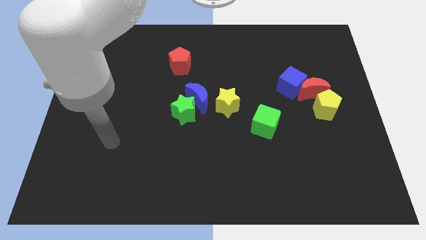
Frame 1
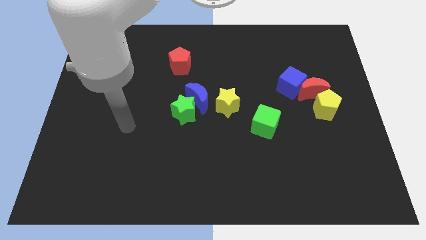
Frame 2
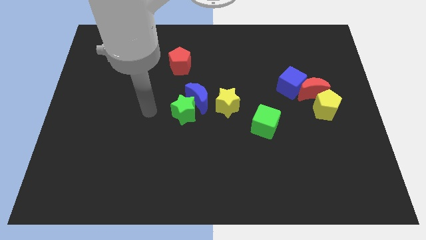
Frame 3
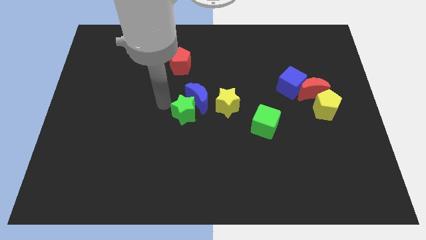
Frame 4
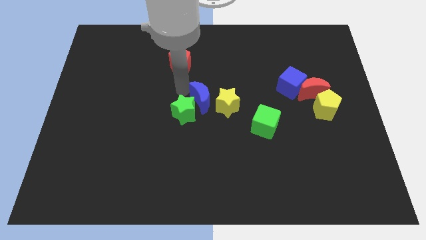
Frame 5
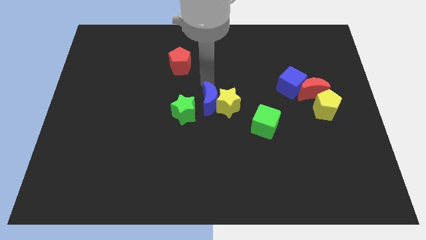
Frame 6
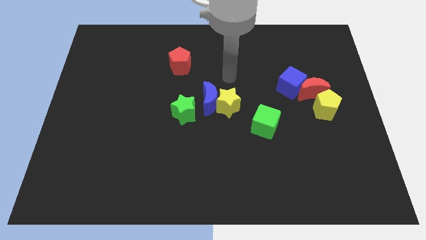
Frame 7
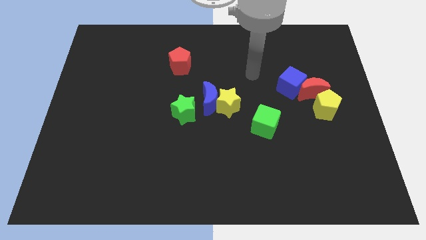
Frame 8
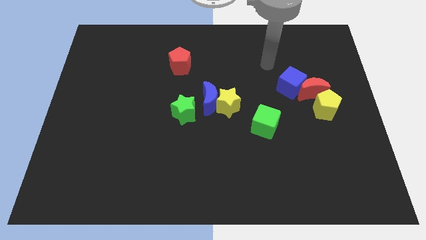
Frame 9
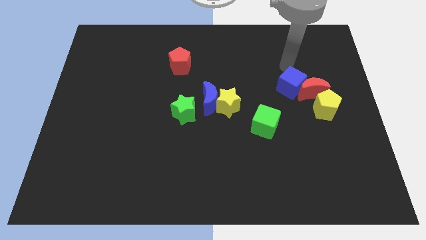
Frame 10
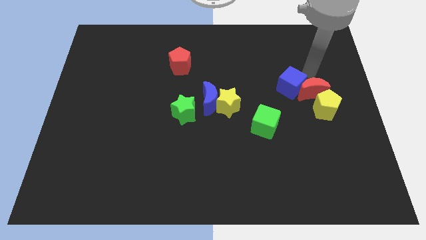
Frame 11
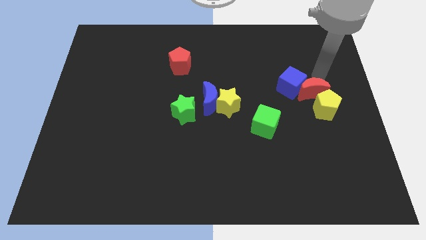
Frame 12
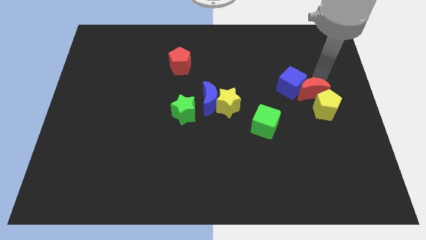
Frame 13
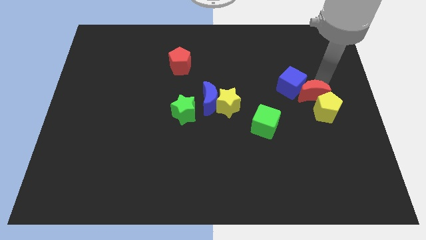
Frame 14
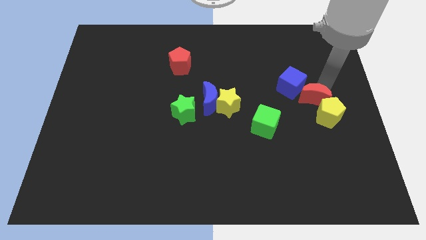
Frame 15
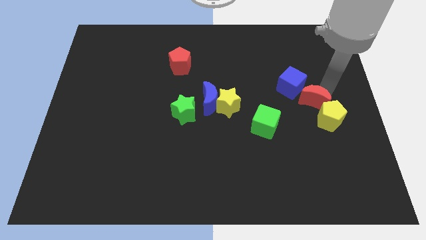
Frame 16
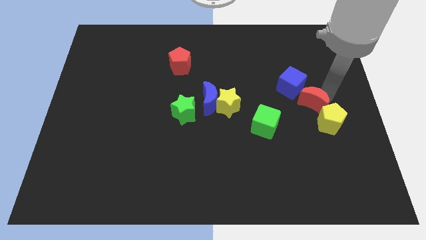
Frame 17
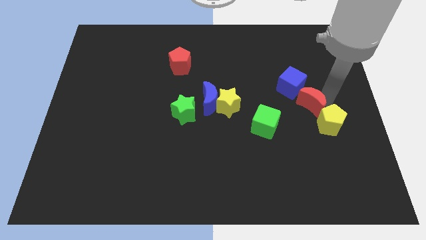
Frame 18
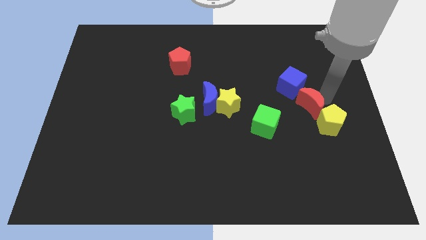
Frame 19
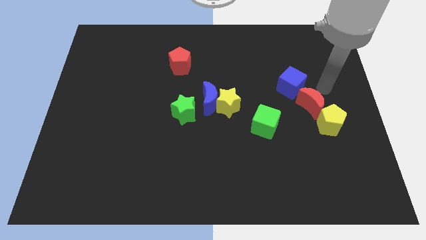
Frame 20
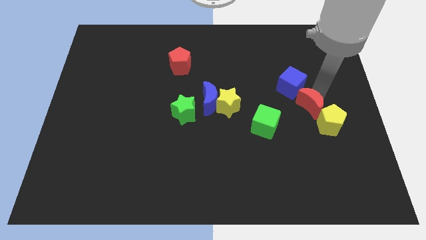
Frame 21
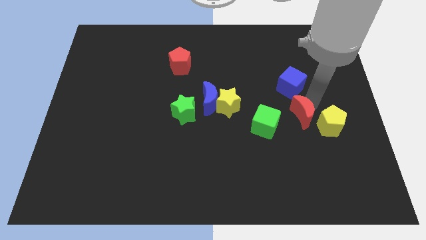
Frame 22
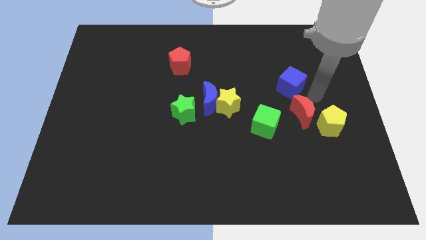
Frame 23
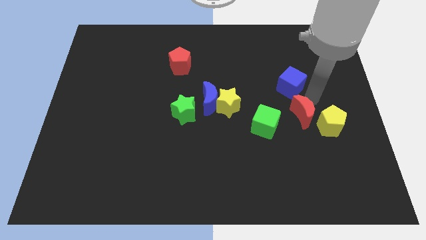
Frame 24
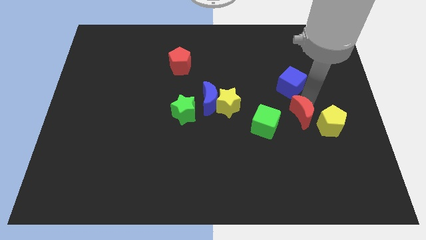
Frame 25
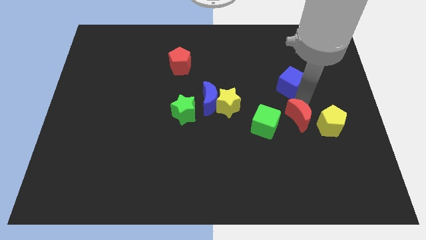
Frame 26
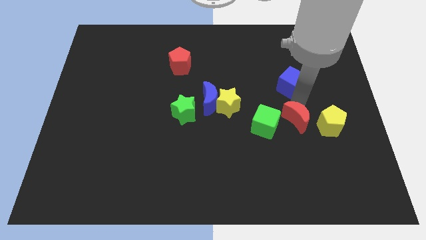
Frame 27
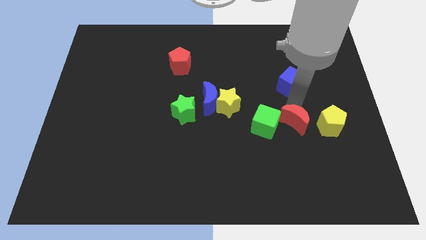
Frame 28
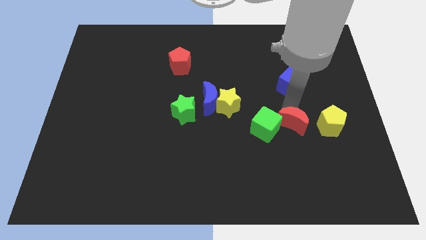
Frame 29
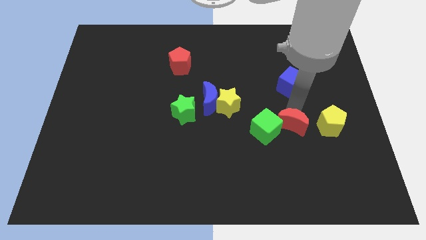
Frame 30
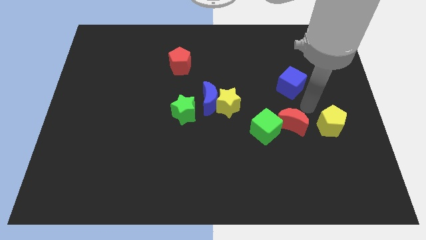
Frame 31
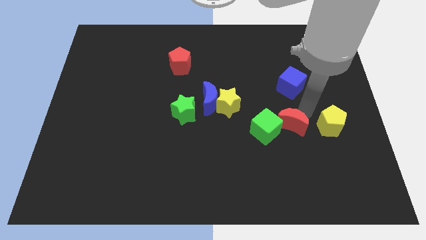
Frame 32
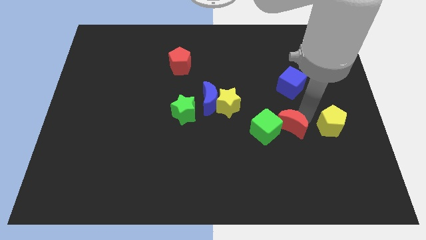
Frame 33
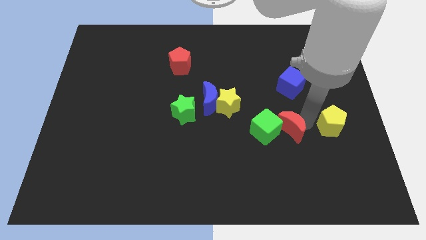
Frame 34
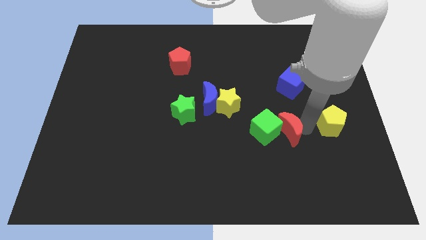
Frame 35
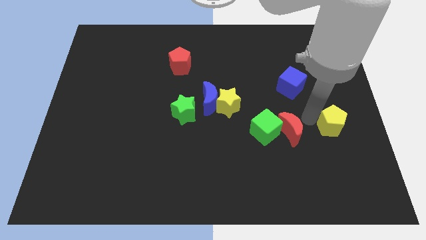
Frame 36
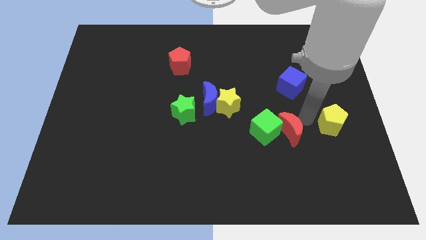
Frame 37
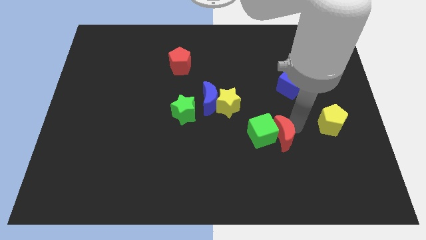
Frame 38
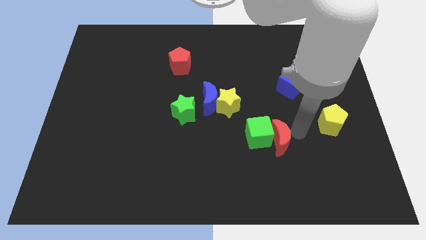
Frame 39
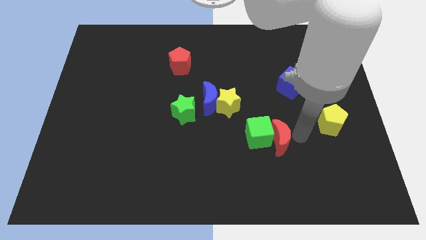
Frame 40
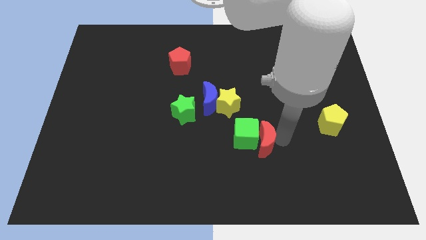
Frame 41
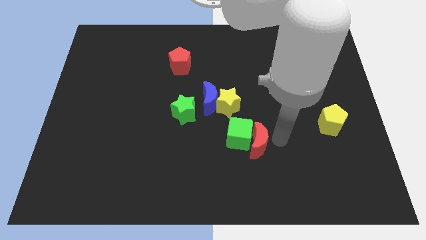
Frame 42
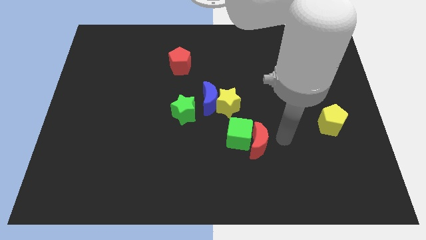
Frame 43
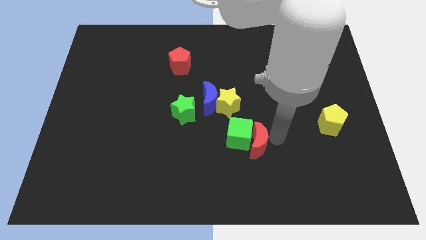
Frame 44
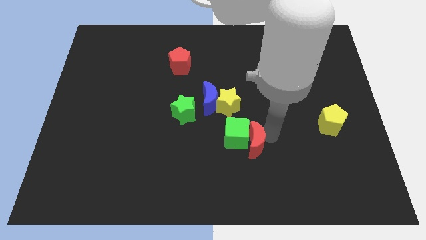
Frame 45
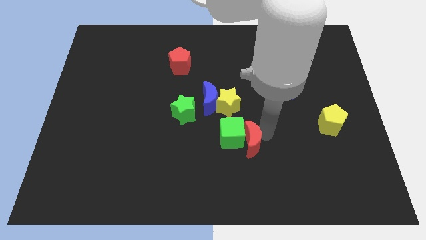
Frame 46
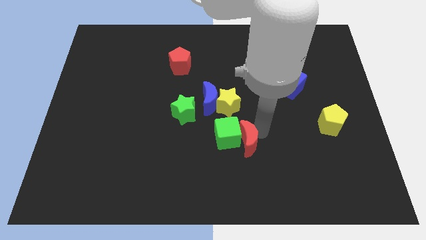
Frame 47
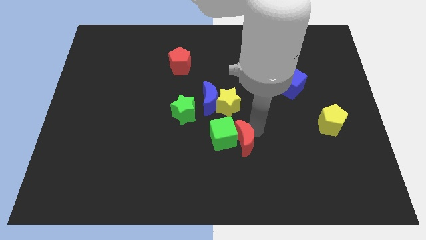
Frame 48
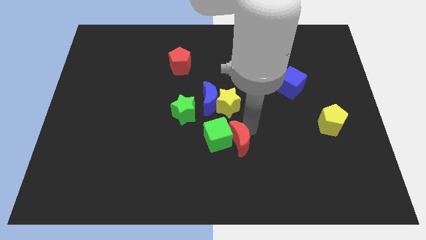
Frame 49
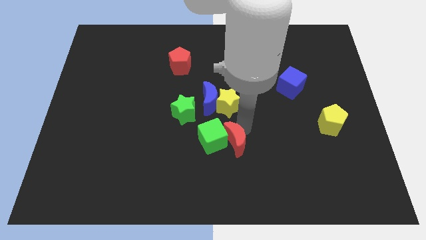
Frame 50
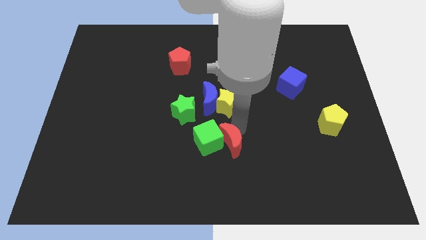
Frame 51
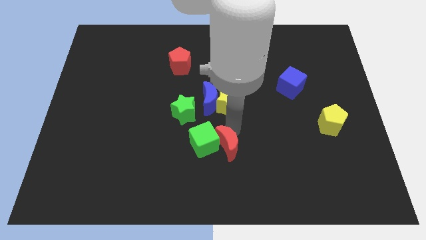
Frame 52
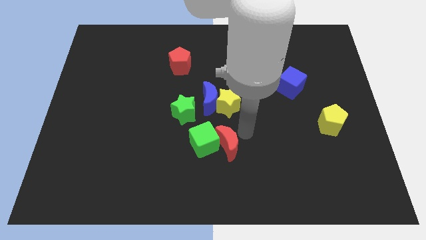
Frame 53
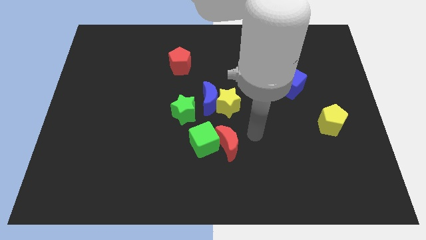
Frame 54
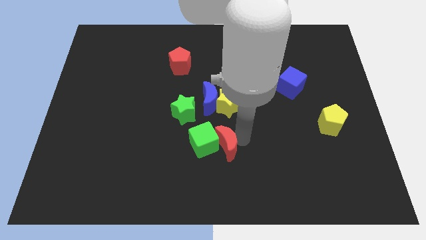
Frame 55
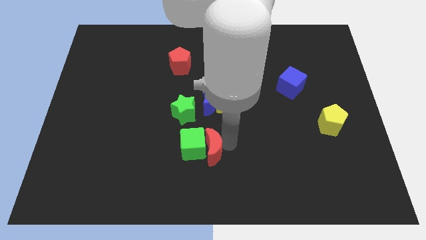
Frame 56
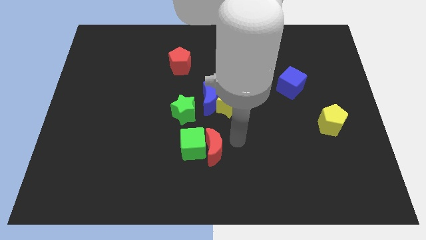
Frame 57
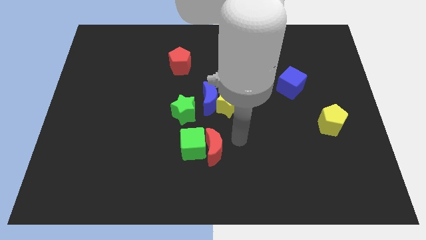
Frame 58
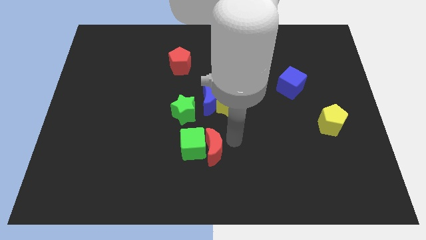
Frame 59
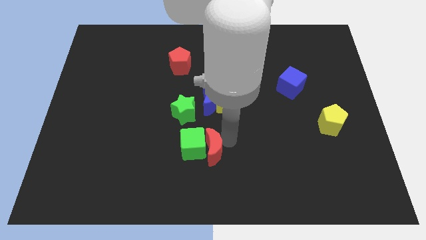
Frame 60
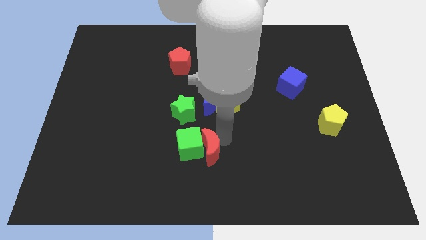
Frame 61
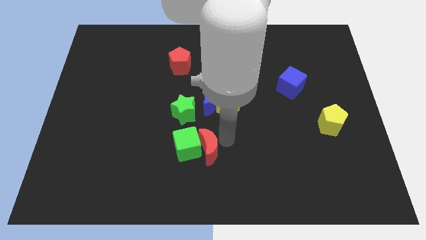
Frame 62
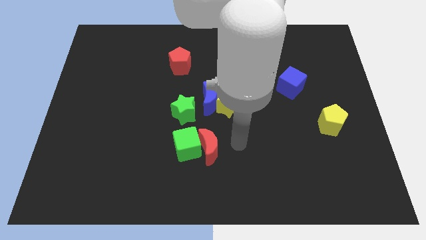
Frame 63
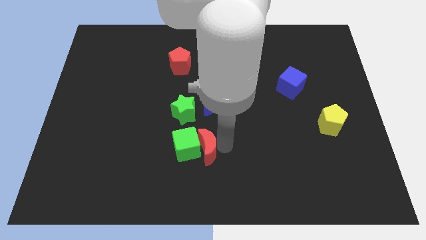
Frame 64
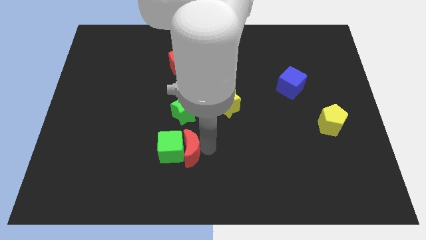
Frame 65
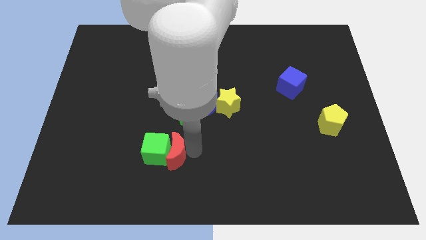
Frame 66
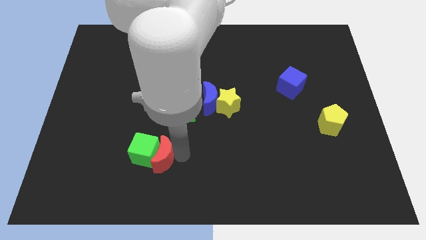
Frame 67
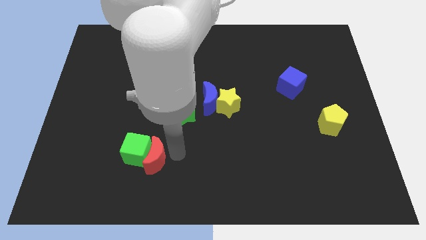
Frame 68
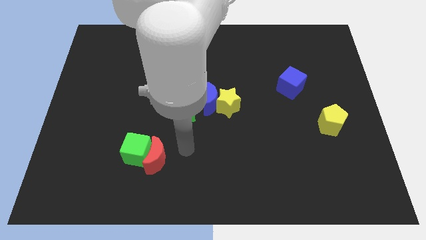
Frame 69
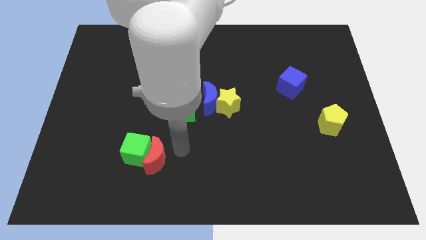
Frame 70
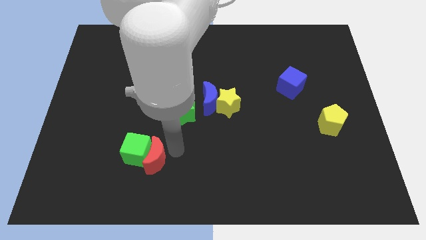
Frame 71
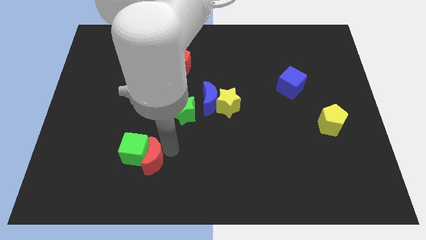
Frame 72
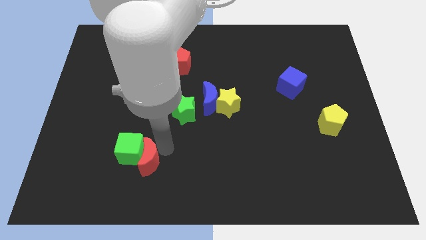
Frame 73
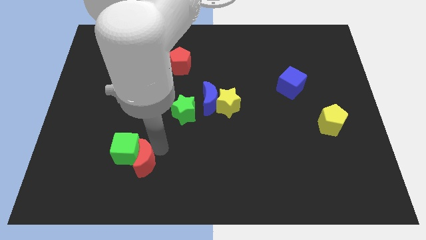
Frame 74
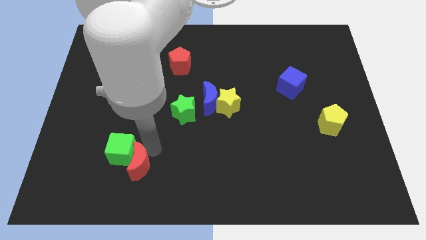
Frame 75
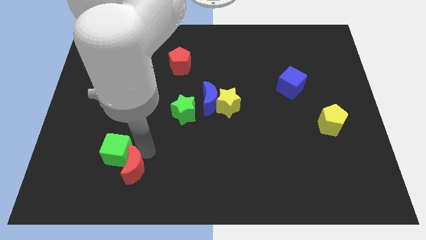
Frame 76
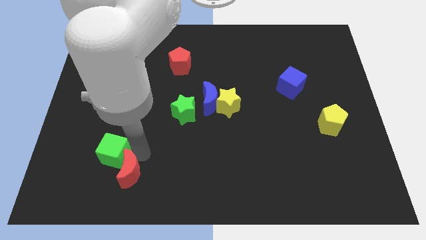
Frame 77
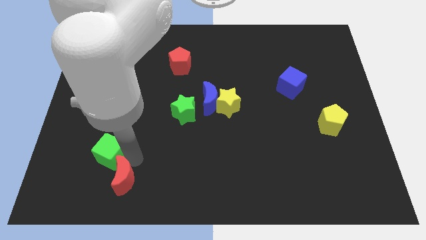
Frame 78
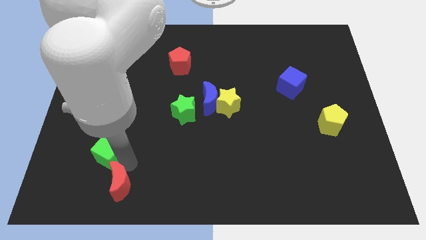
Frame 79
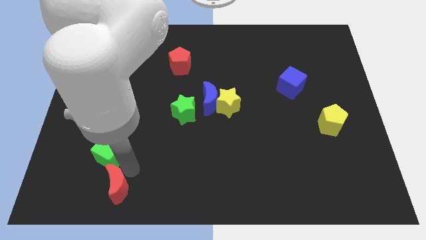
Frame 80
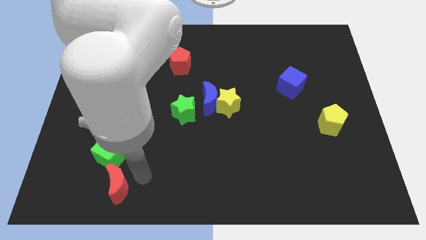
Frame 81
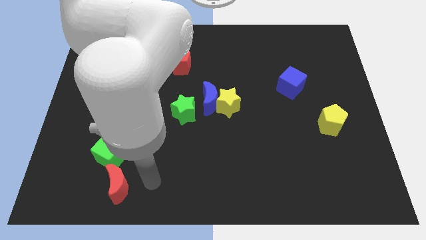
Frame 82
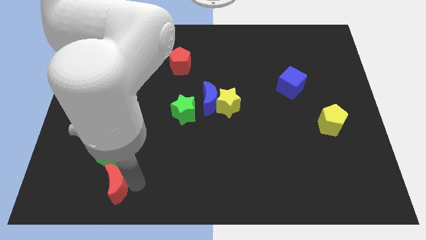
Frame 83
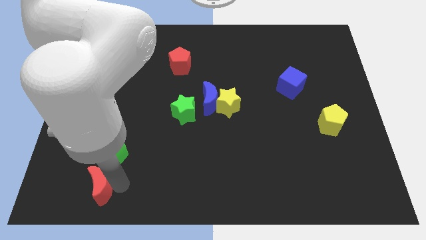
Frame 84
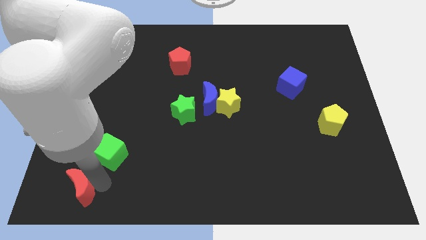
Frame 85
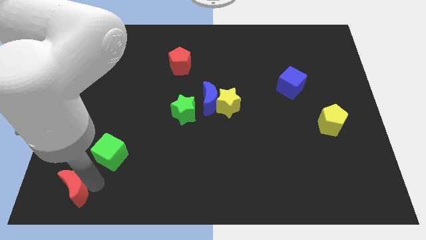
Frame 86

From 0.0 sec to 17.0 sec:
slide the red moon to the bottom left corner
